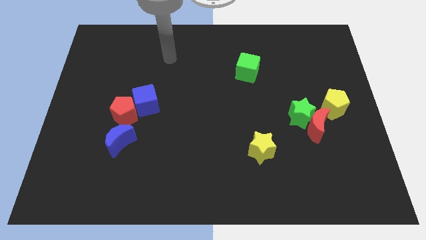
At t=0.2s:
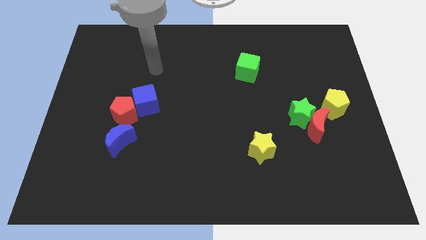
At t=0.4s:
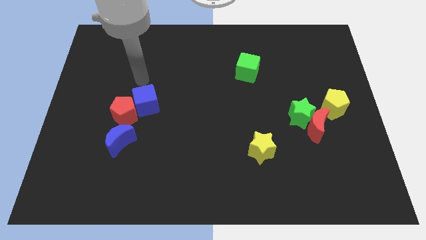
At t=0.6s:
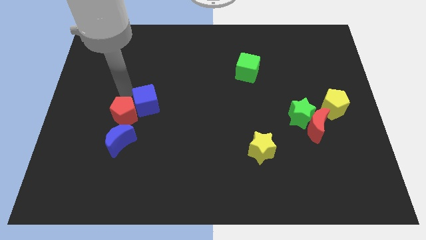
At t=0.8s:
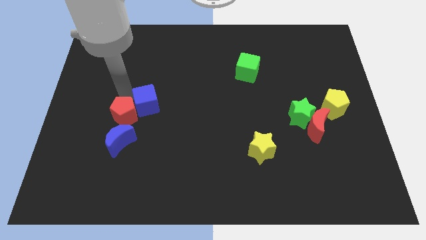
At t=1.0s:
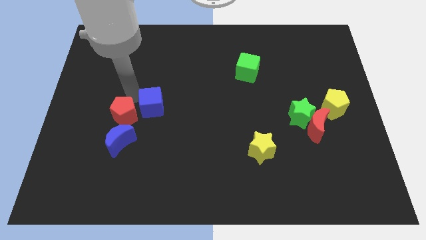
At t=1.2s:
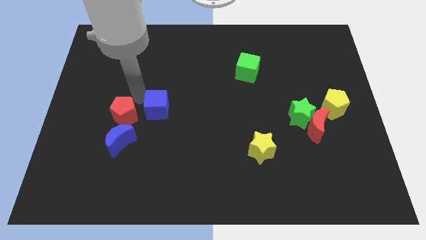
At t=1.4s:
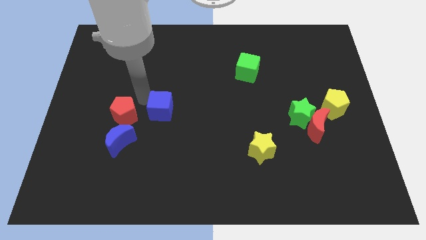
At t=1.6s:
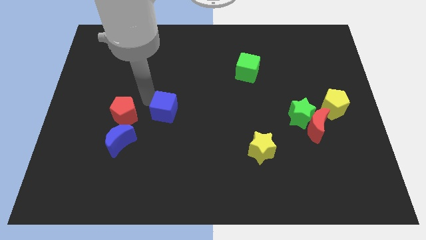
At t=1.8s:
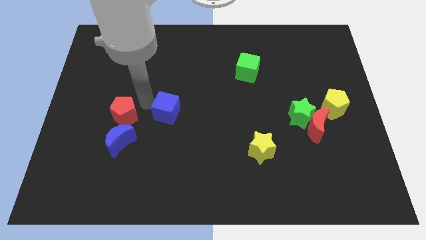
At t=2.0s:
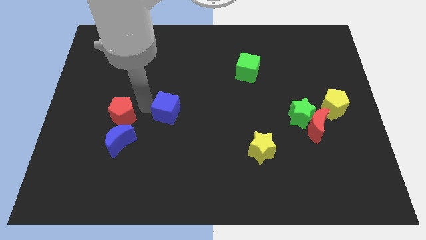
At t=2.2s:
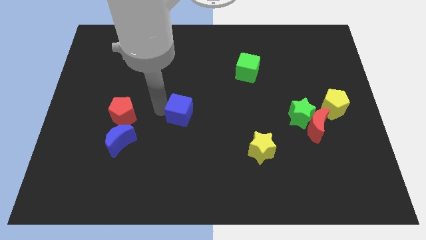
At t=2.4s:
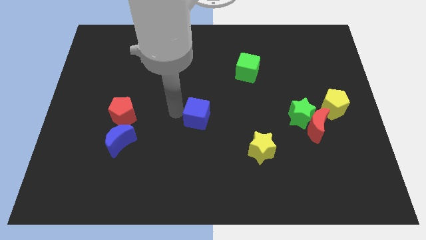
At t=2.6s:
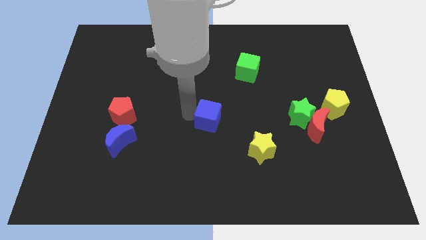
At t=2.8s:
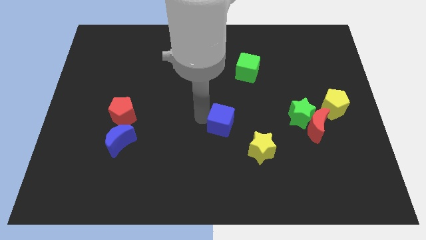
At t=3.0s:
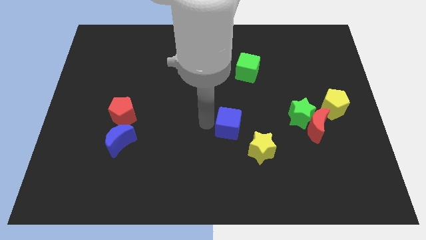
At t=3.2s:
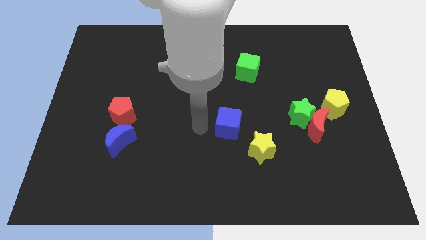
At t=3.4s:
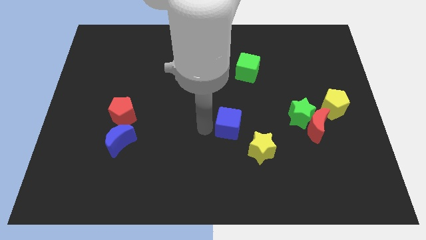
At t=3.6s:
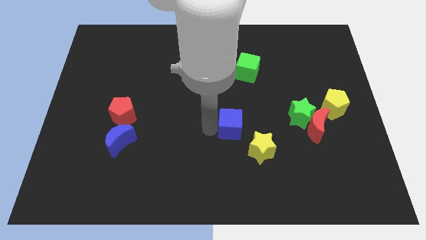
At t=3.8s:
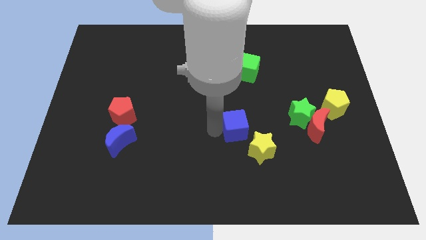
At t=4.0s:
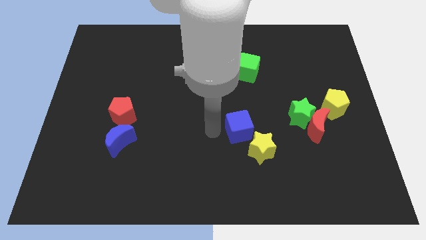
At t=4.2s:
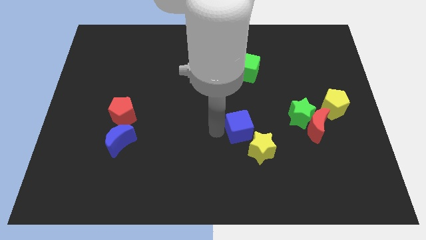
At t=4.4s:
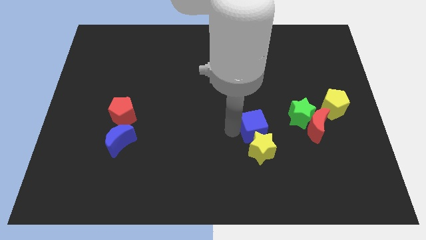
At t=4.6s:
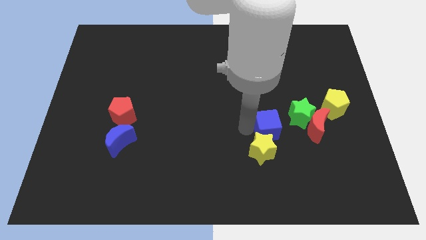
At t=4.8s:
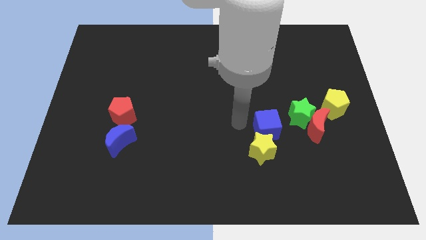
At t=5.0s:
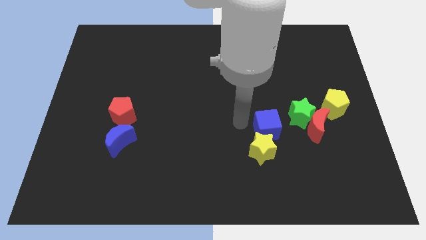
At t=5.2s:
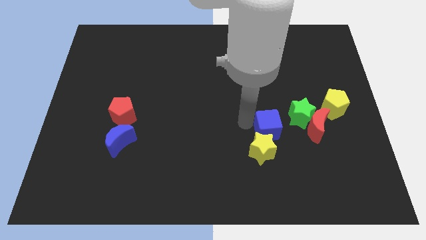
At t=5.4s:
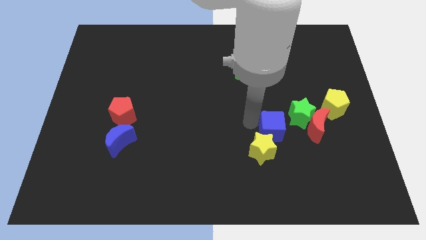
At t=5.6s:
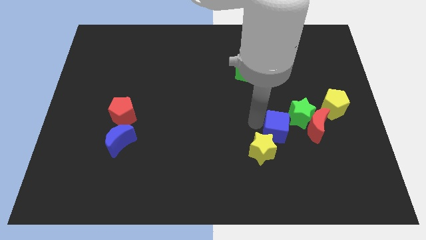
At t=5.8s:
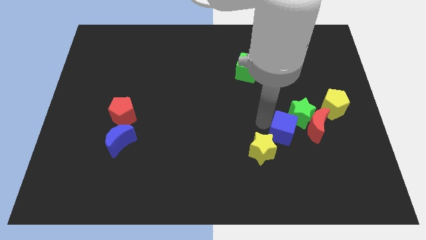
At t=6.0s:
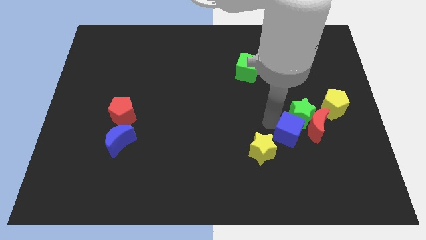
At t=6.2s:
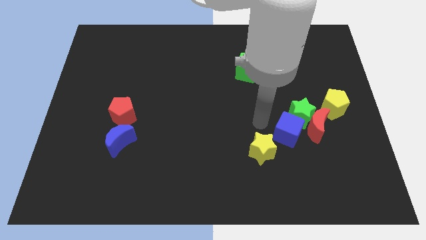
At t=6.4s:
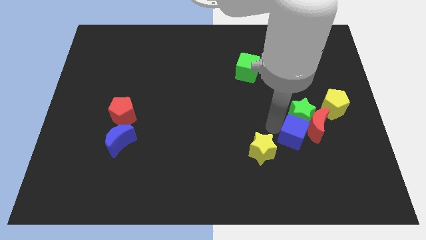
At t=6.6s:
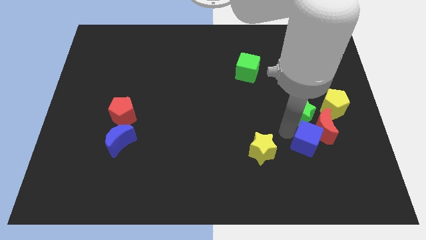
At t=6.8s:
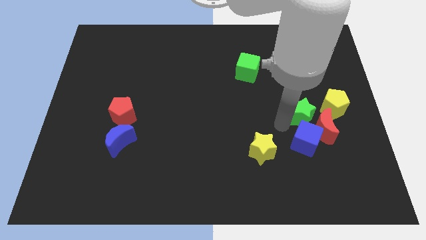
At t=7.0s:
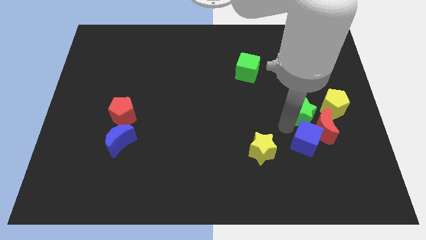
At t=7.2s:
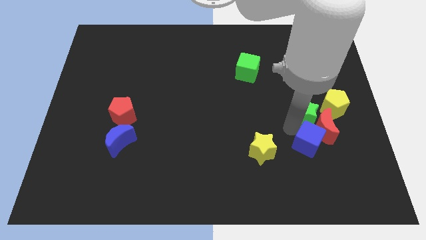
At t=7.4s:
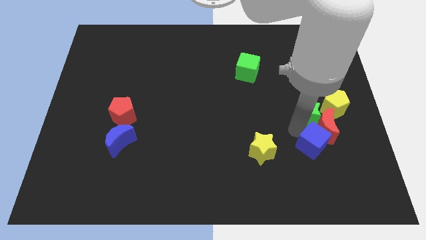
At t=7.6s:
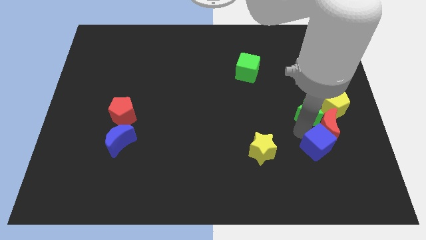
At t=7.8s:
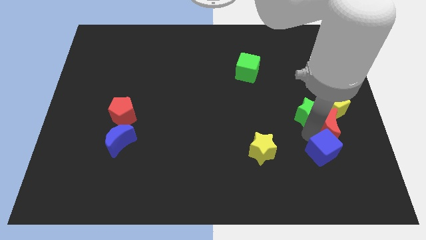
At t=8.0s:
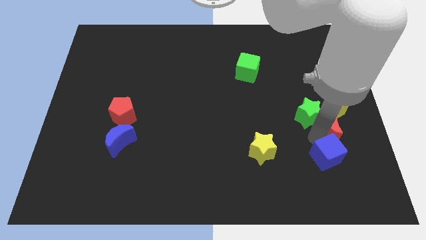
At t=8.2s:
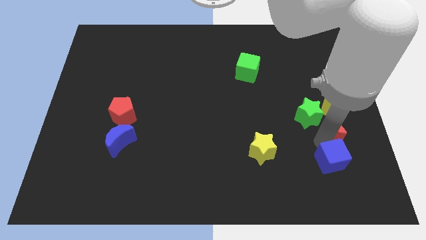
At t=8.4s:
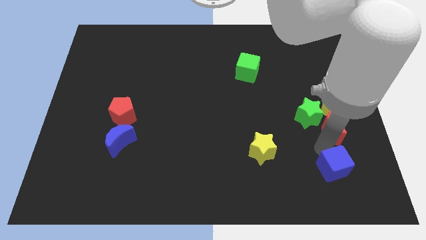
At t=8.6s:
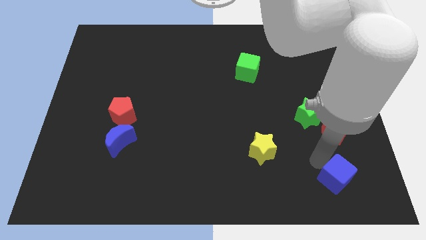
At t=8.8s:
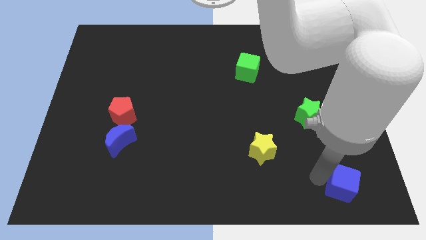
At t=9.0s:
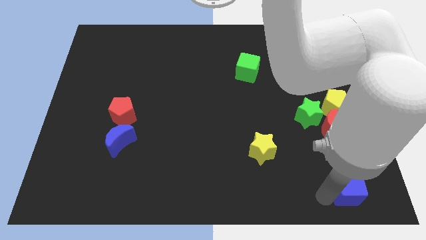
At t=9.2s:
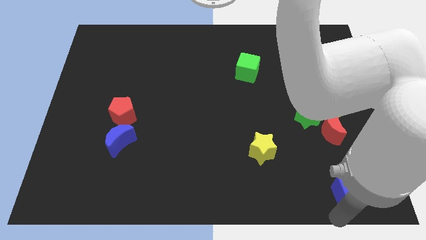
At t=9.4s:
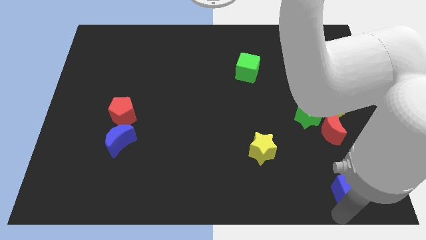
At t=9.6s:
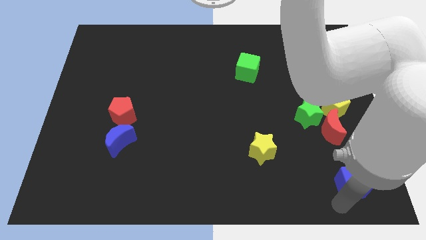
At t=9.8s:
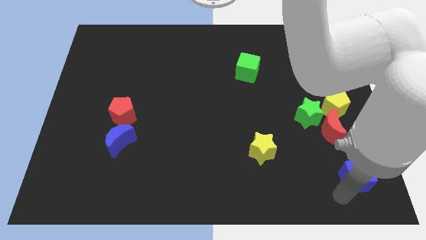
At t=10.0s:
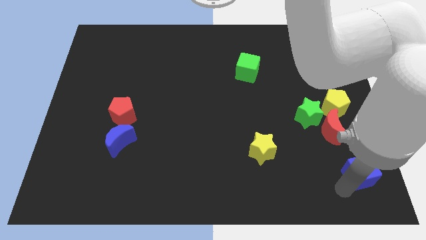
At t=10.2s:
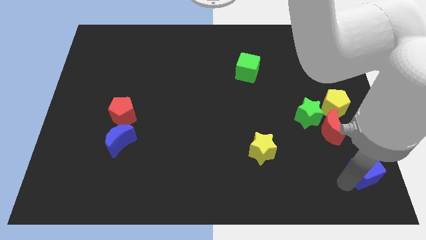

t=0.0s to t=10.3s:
slide the blue cube to the bottom right of the red moon

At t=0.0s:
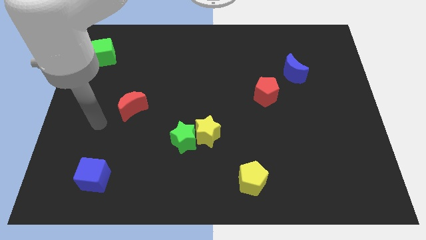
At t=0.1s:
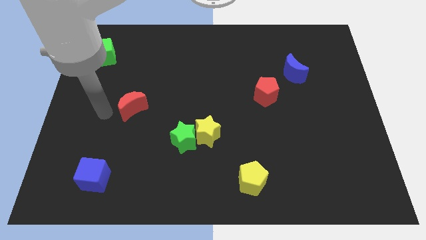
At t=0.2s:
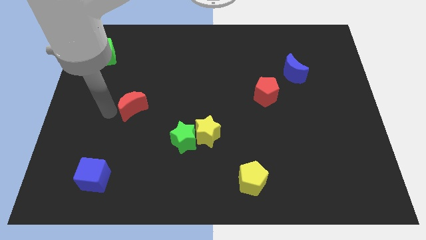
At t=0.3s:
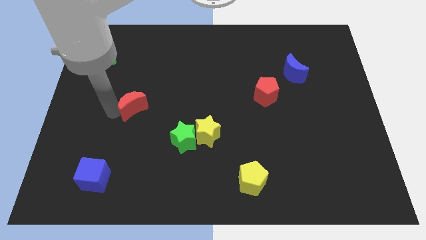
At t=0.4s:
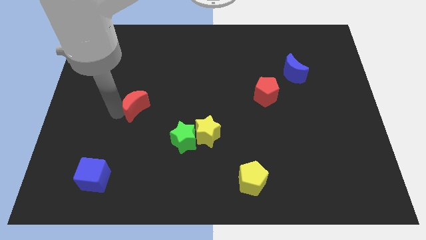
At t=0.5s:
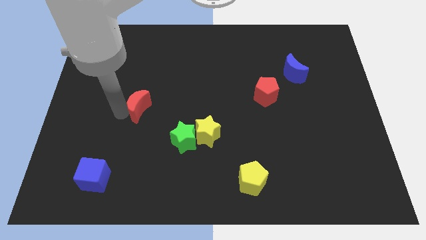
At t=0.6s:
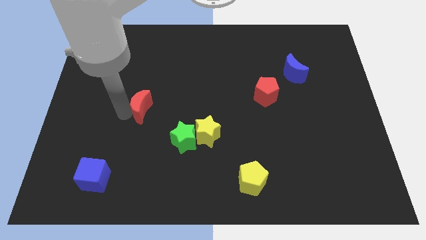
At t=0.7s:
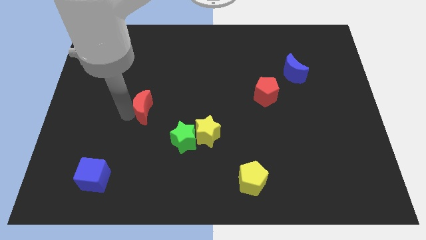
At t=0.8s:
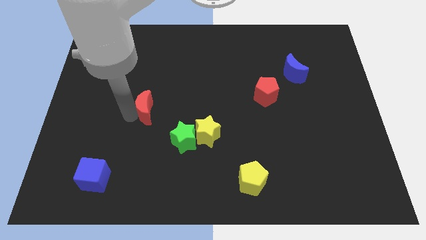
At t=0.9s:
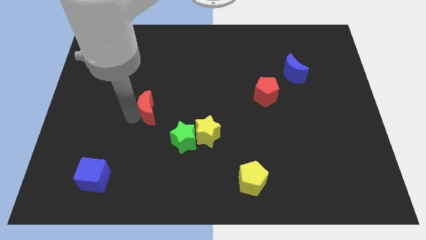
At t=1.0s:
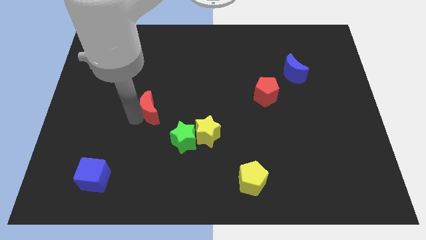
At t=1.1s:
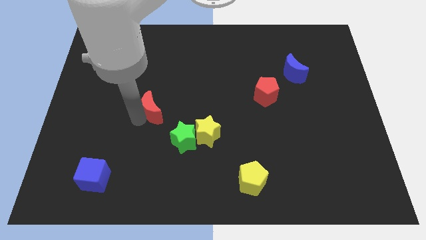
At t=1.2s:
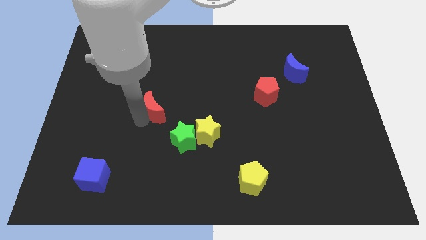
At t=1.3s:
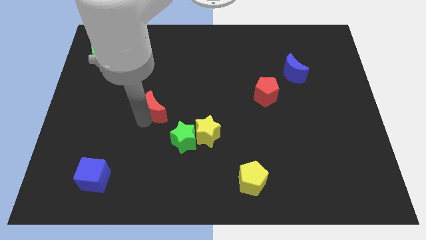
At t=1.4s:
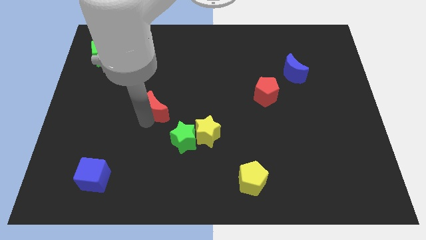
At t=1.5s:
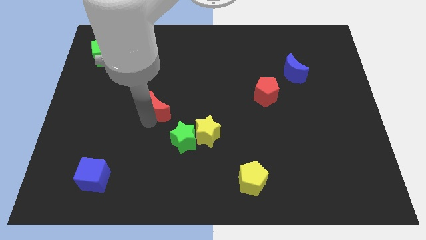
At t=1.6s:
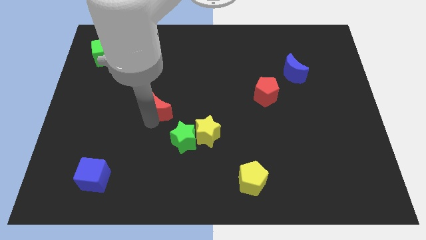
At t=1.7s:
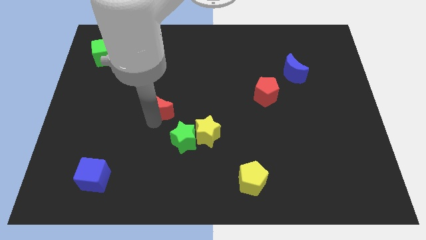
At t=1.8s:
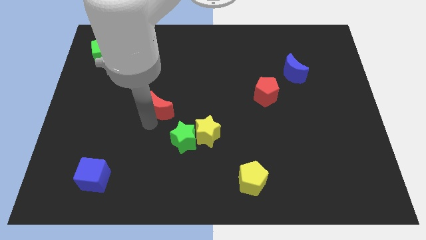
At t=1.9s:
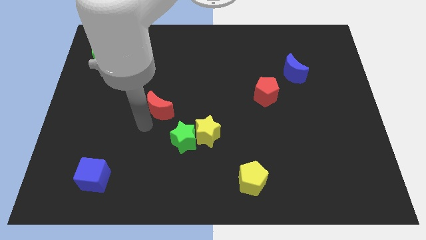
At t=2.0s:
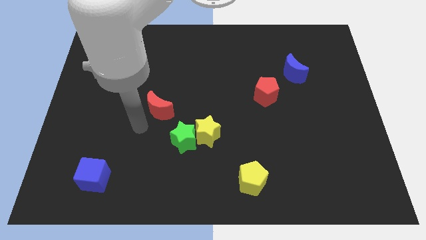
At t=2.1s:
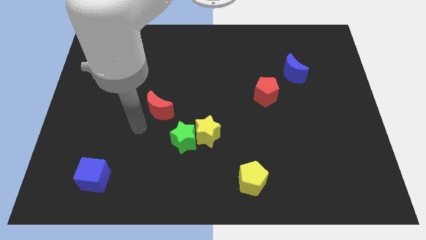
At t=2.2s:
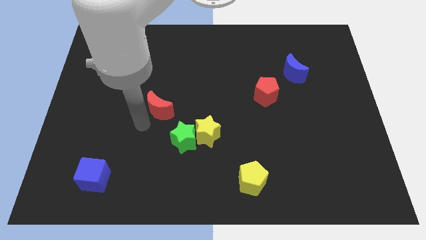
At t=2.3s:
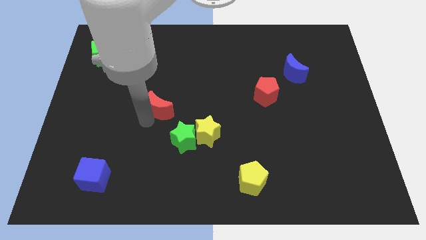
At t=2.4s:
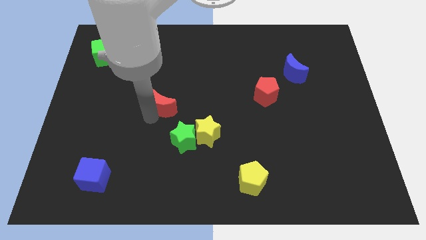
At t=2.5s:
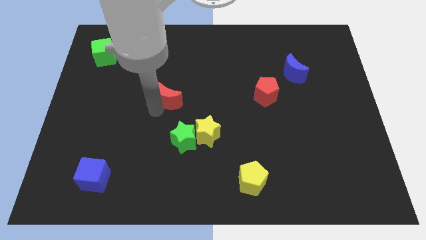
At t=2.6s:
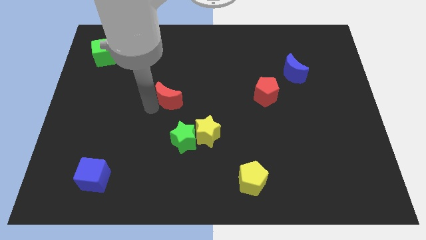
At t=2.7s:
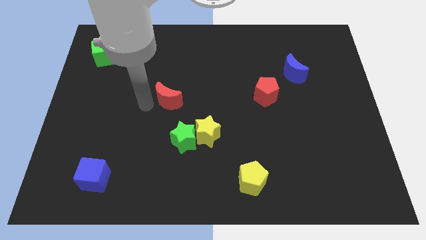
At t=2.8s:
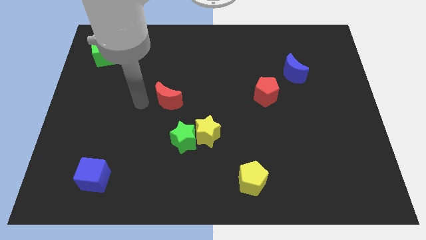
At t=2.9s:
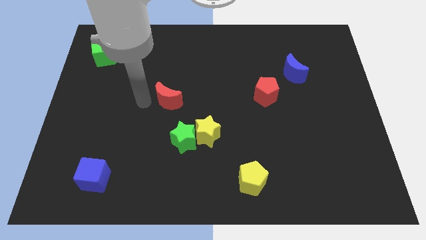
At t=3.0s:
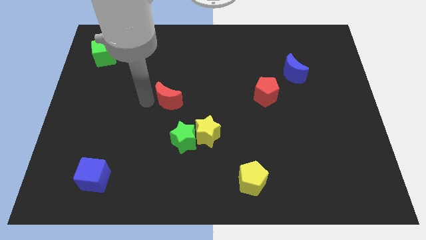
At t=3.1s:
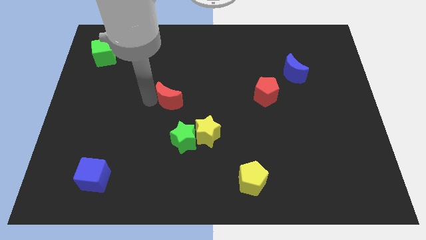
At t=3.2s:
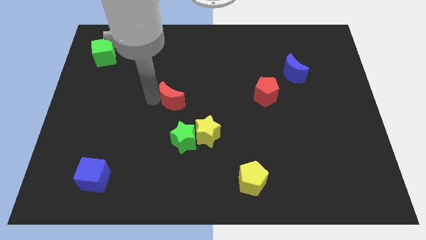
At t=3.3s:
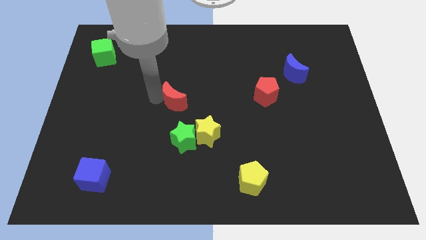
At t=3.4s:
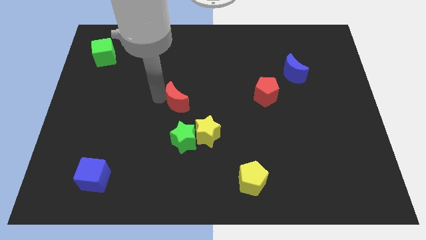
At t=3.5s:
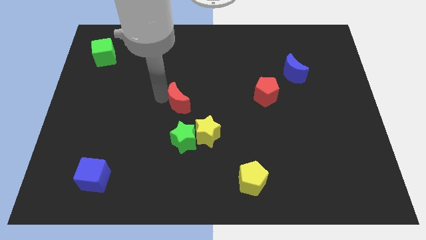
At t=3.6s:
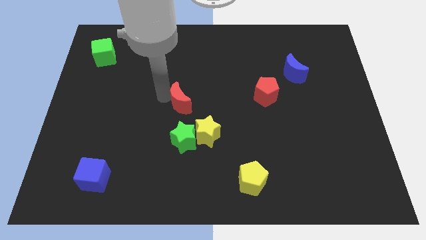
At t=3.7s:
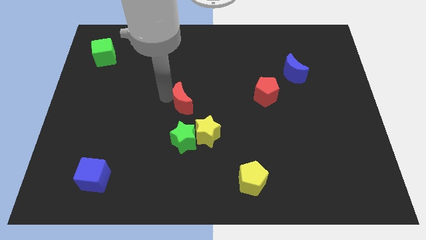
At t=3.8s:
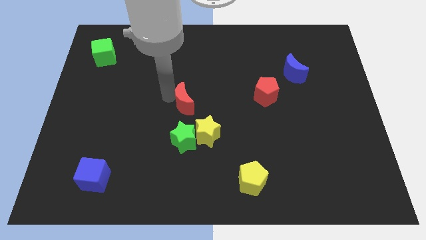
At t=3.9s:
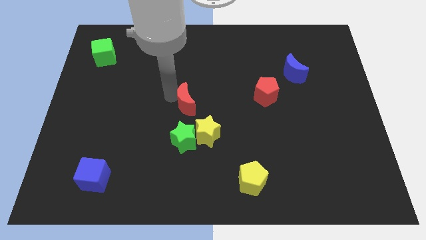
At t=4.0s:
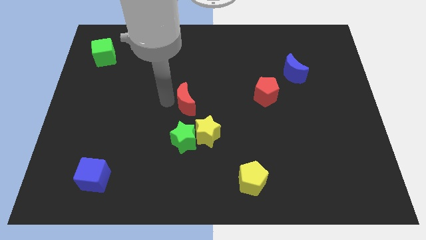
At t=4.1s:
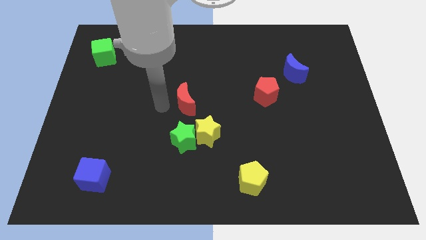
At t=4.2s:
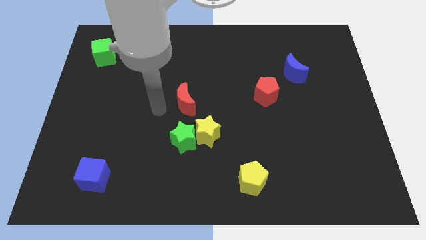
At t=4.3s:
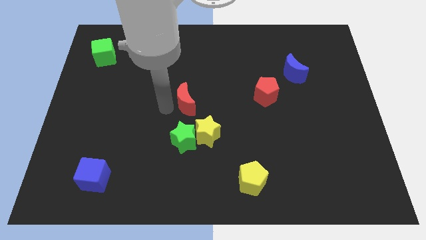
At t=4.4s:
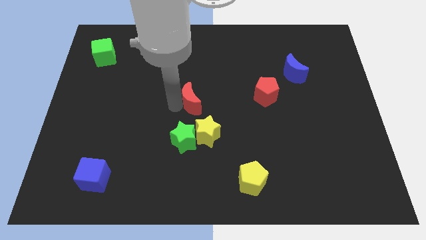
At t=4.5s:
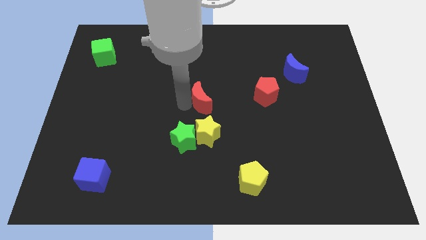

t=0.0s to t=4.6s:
slide the red moon to the left side of the red pentagon
